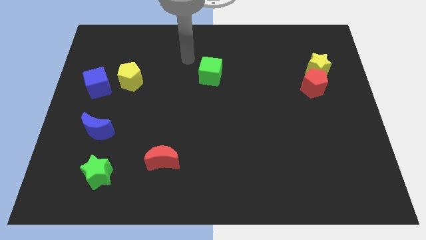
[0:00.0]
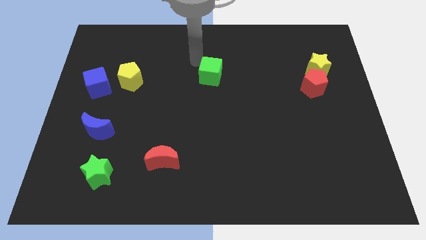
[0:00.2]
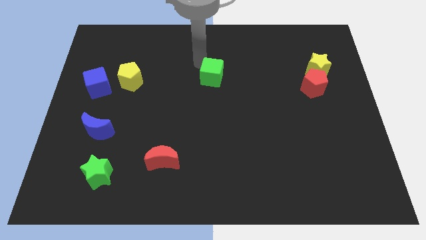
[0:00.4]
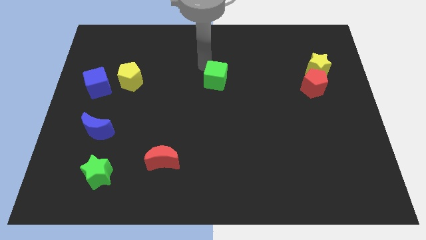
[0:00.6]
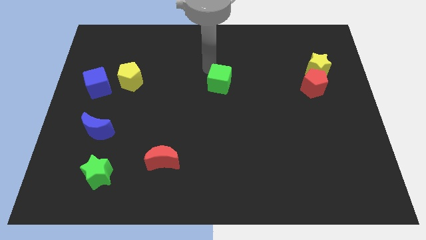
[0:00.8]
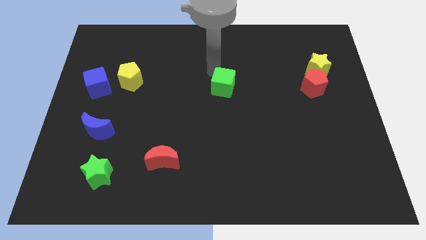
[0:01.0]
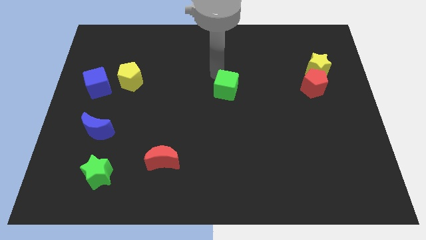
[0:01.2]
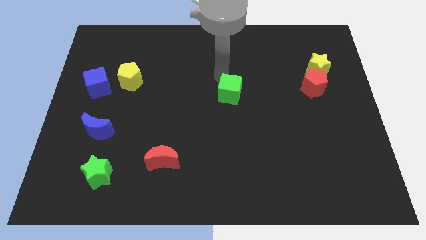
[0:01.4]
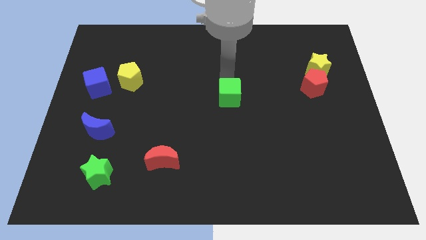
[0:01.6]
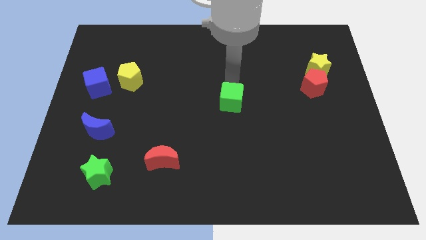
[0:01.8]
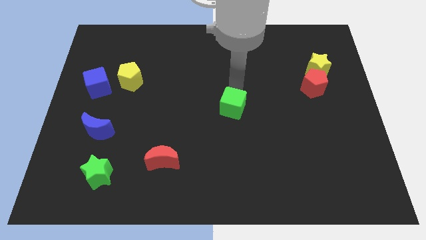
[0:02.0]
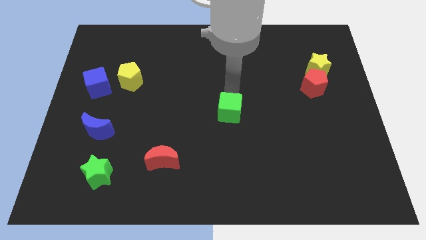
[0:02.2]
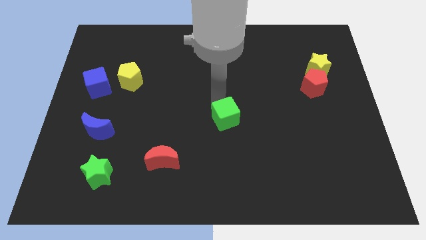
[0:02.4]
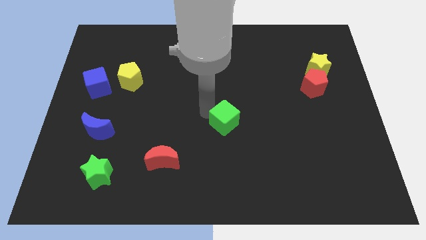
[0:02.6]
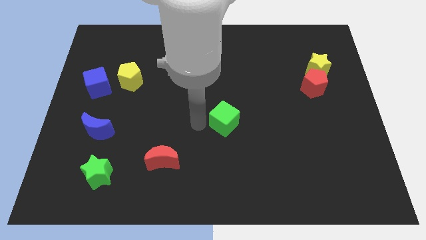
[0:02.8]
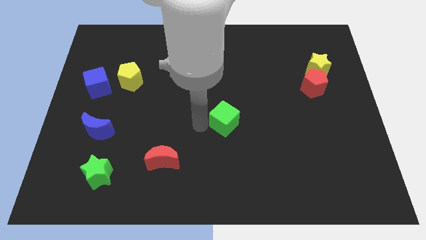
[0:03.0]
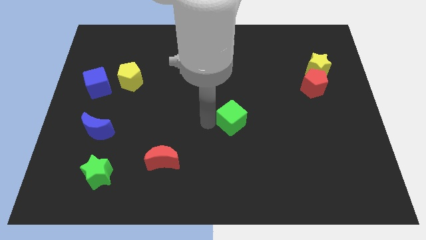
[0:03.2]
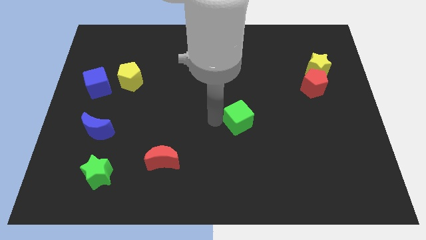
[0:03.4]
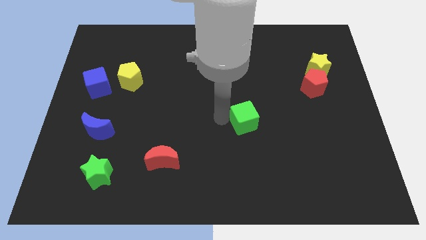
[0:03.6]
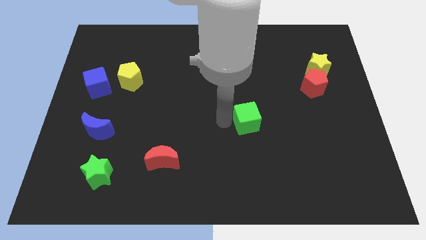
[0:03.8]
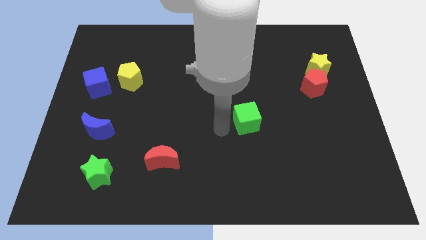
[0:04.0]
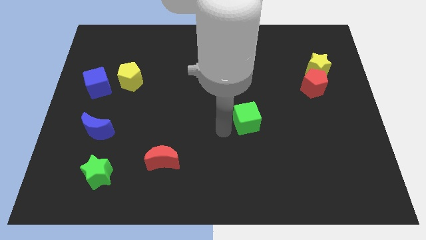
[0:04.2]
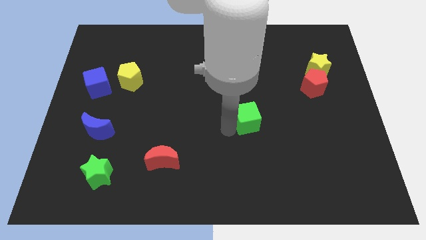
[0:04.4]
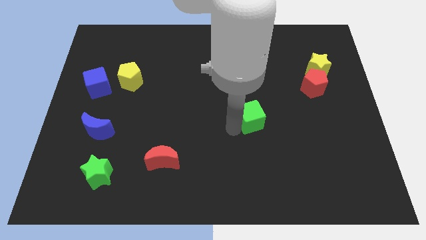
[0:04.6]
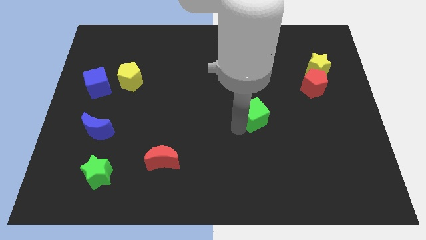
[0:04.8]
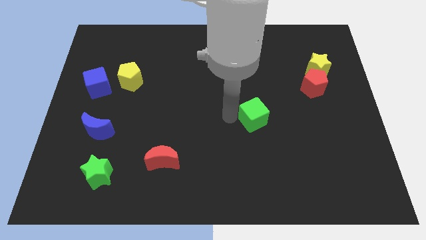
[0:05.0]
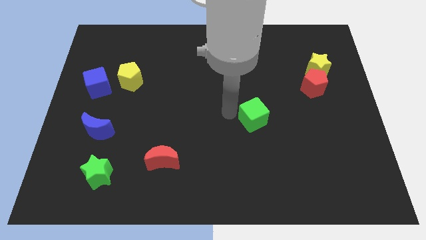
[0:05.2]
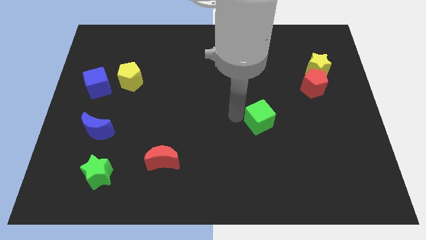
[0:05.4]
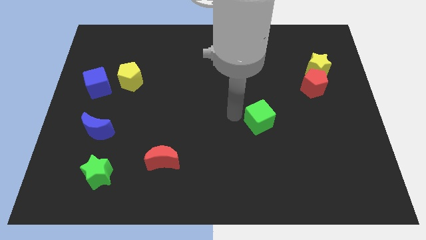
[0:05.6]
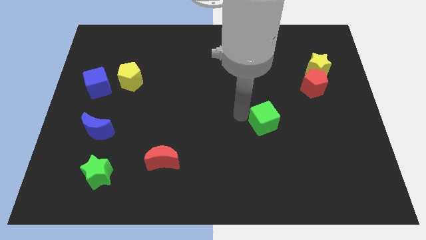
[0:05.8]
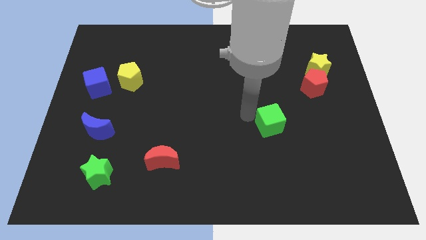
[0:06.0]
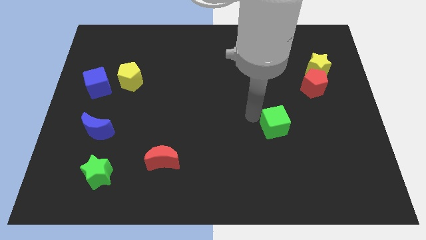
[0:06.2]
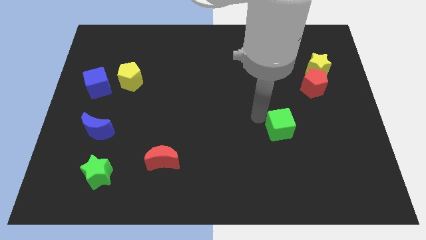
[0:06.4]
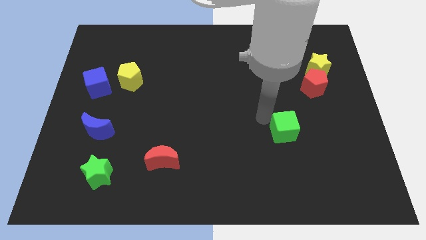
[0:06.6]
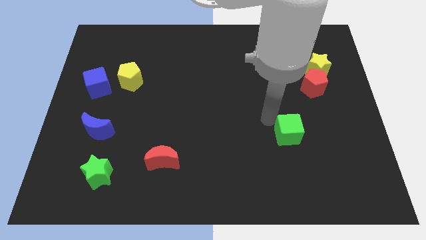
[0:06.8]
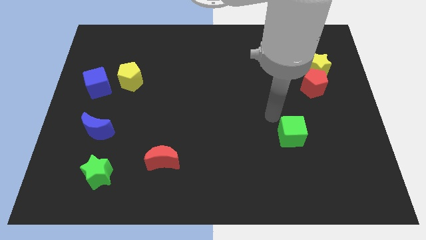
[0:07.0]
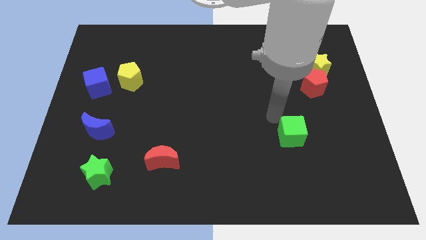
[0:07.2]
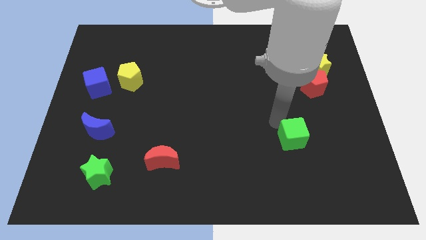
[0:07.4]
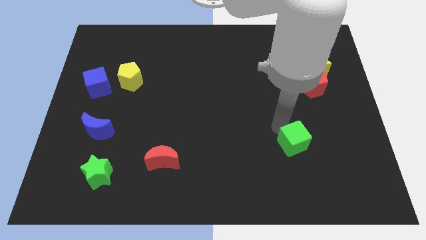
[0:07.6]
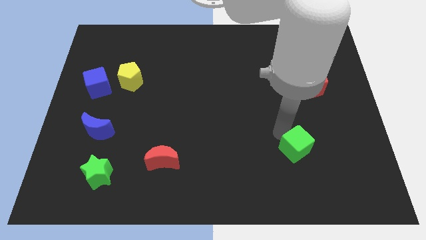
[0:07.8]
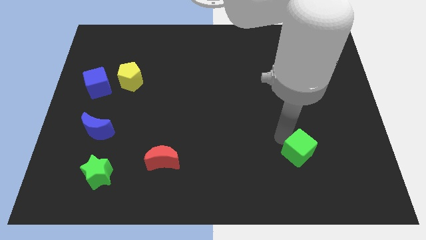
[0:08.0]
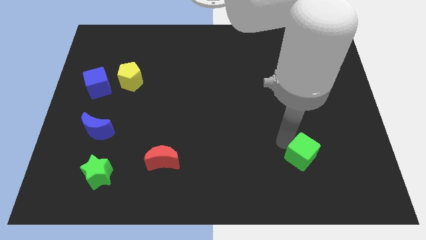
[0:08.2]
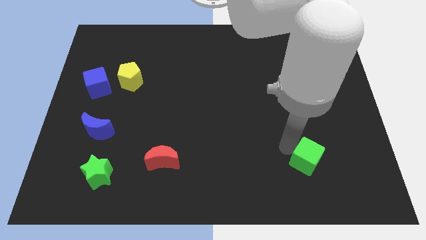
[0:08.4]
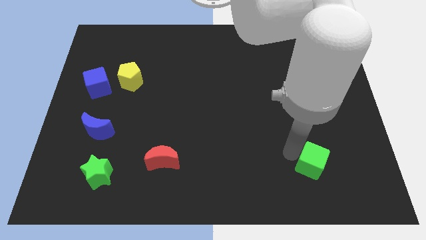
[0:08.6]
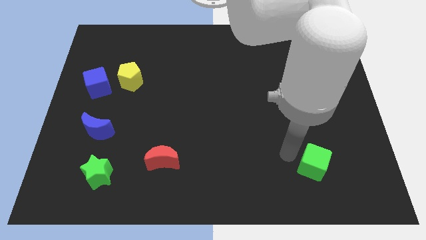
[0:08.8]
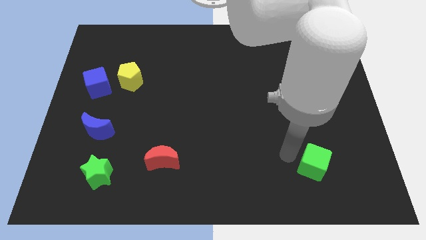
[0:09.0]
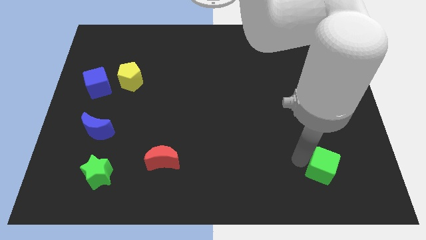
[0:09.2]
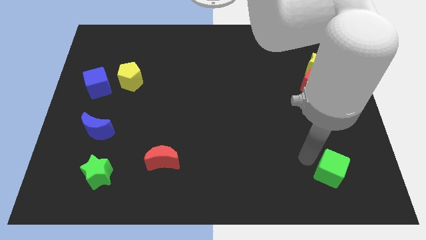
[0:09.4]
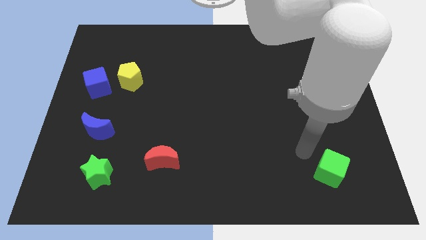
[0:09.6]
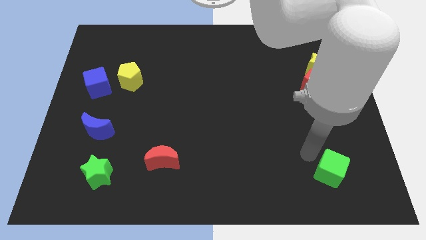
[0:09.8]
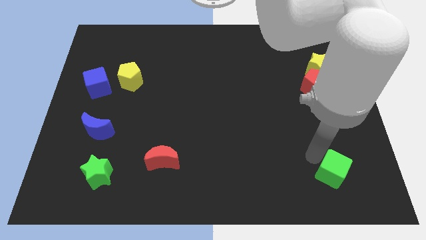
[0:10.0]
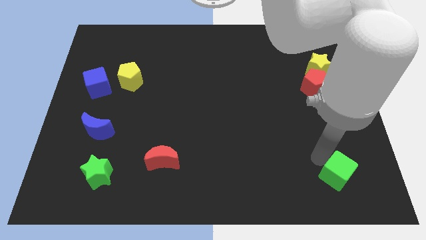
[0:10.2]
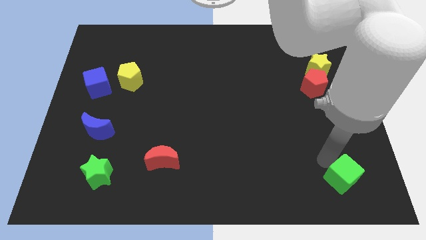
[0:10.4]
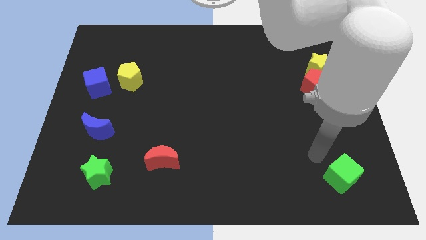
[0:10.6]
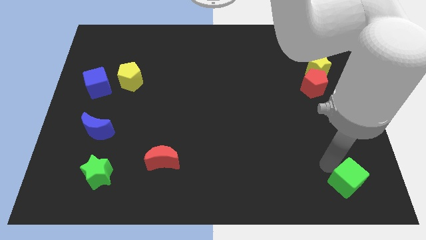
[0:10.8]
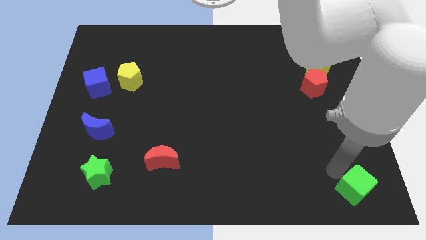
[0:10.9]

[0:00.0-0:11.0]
move the green cube to the bottom right corner

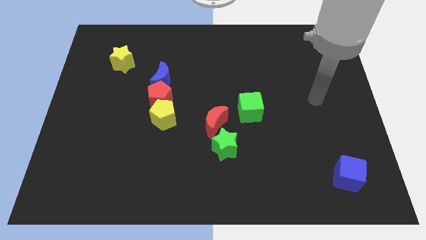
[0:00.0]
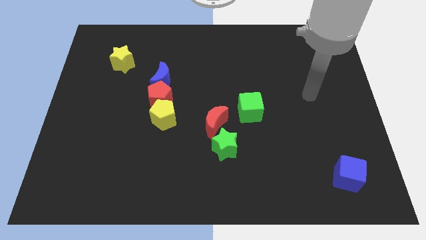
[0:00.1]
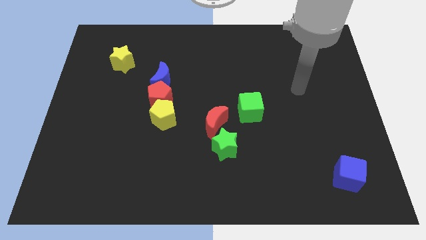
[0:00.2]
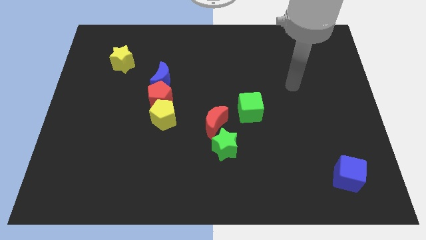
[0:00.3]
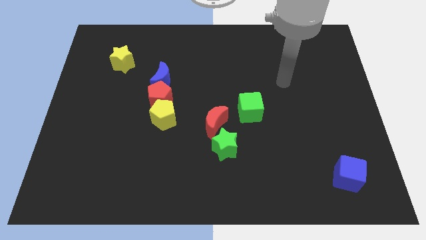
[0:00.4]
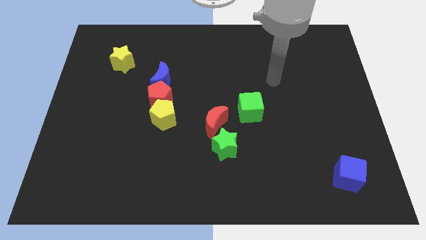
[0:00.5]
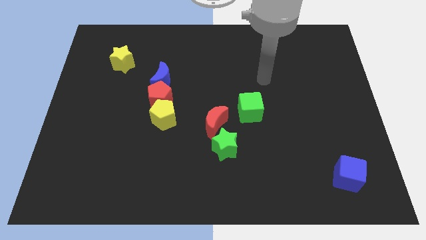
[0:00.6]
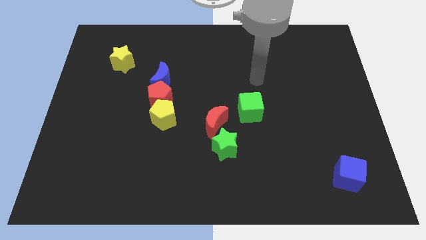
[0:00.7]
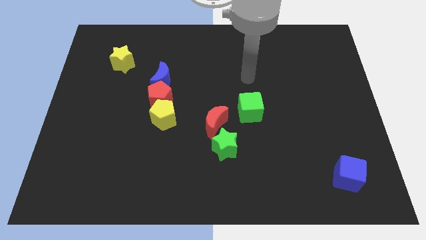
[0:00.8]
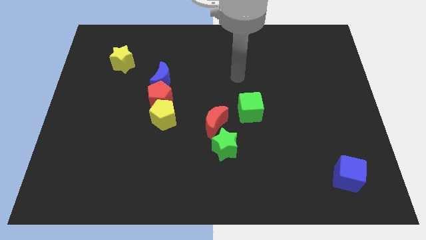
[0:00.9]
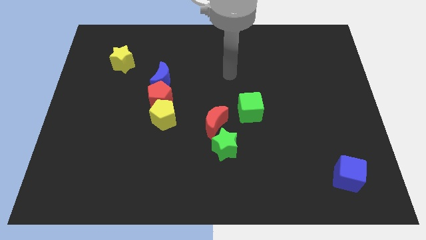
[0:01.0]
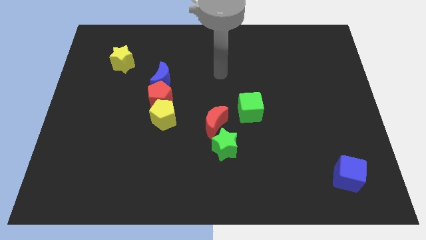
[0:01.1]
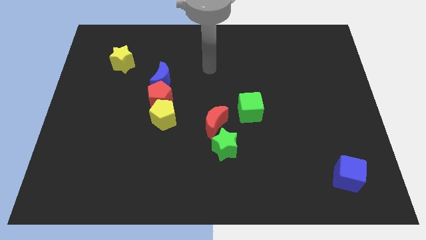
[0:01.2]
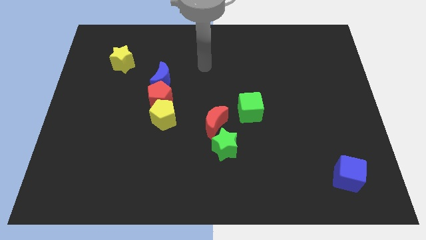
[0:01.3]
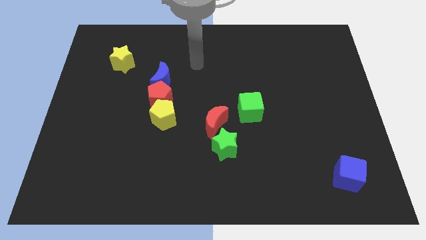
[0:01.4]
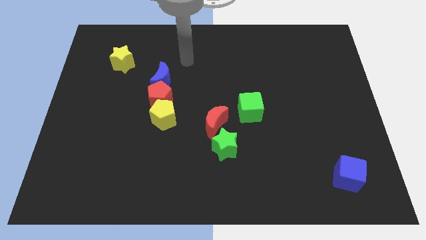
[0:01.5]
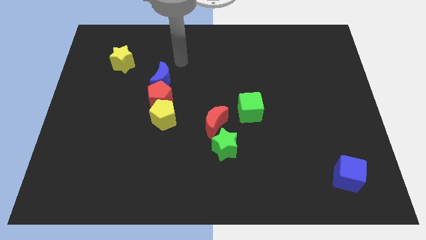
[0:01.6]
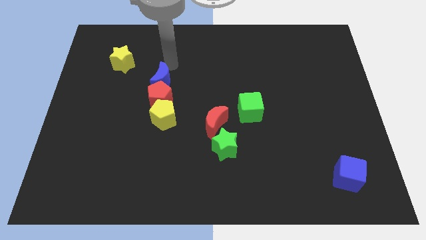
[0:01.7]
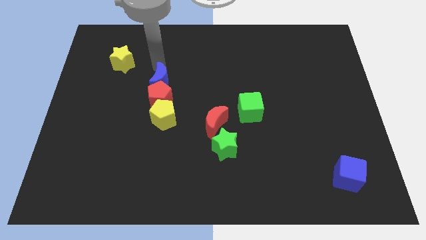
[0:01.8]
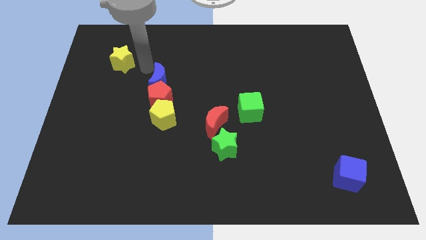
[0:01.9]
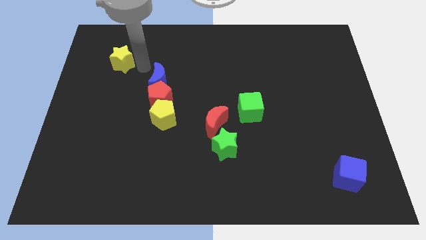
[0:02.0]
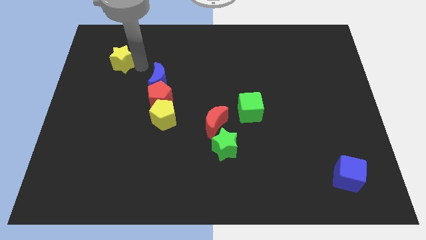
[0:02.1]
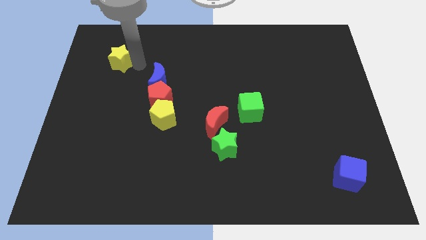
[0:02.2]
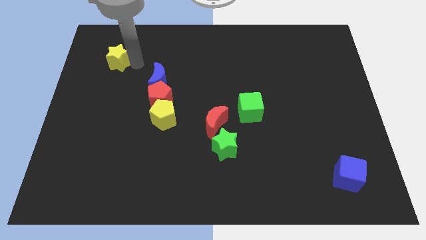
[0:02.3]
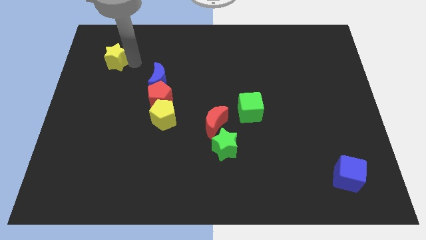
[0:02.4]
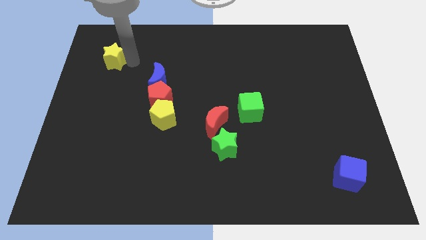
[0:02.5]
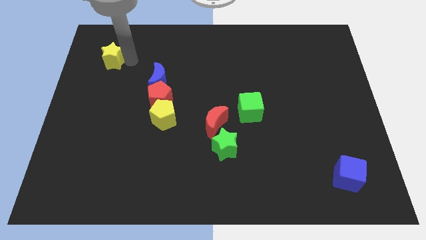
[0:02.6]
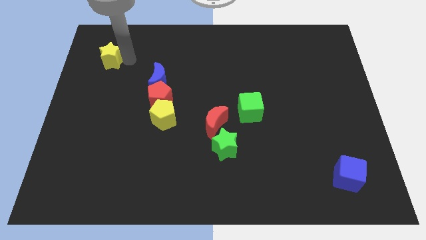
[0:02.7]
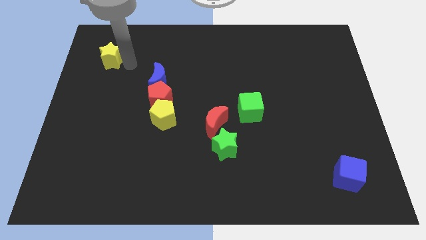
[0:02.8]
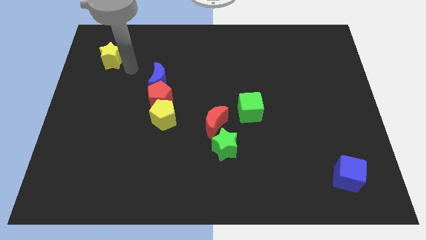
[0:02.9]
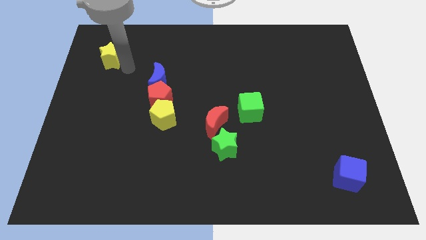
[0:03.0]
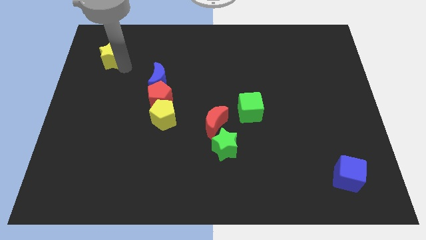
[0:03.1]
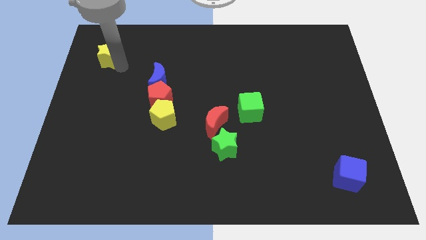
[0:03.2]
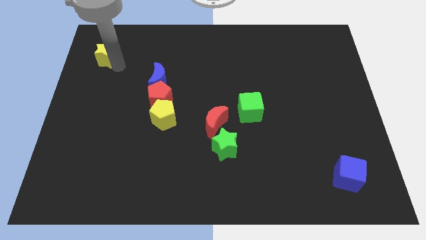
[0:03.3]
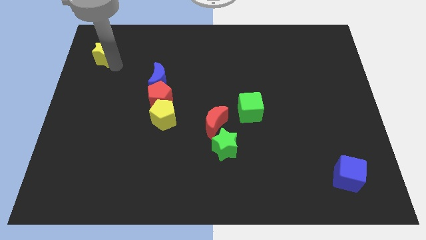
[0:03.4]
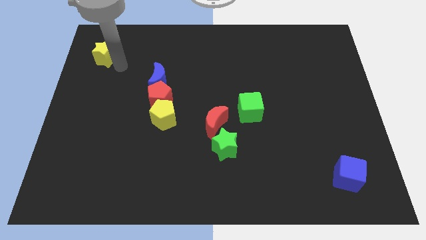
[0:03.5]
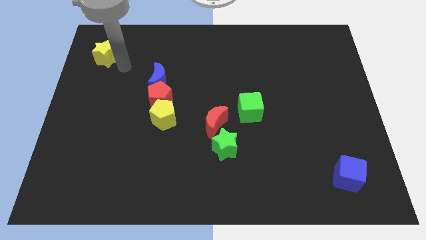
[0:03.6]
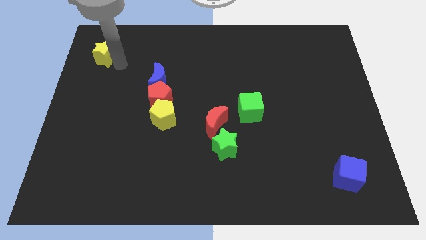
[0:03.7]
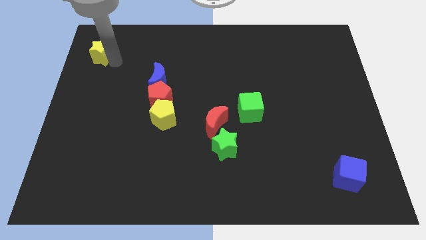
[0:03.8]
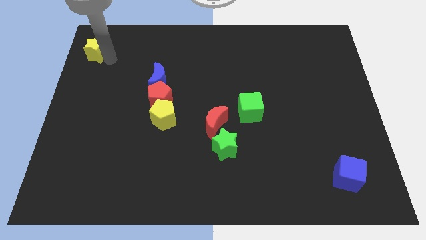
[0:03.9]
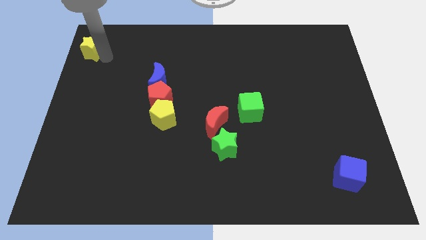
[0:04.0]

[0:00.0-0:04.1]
move the yellow star to the top left of the board
